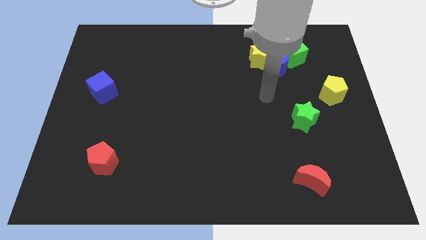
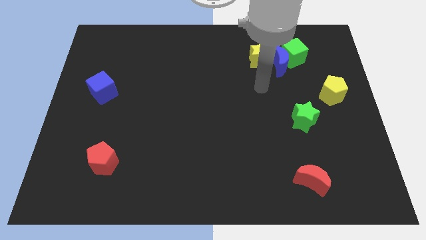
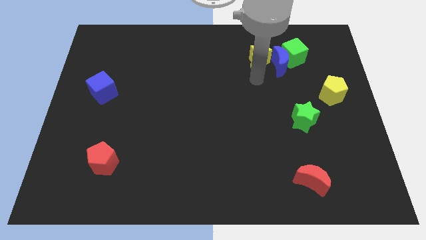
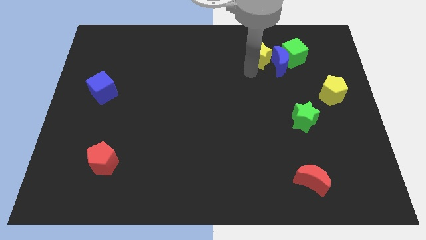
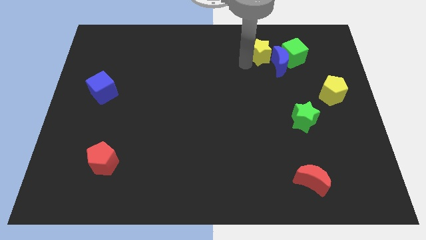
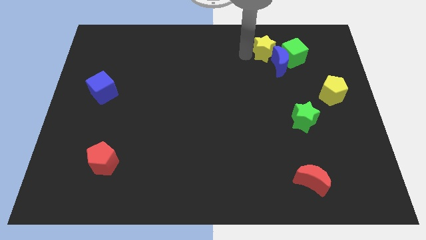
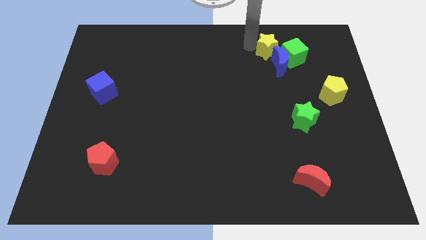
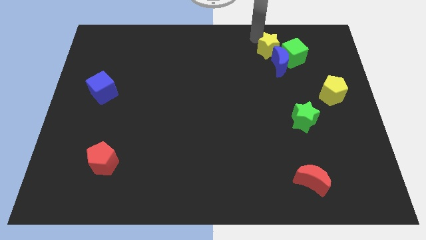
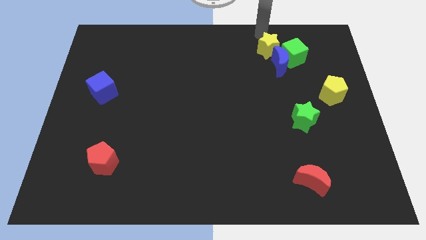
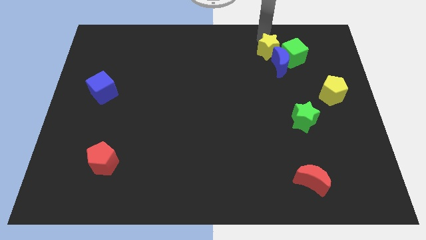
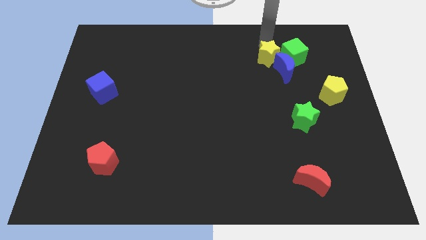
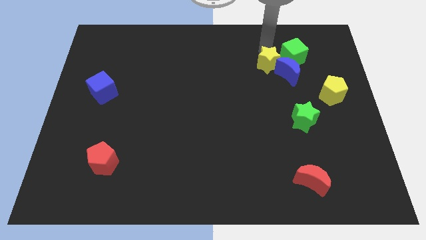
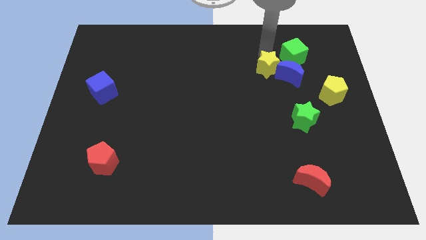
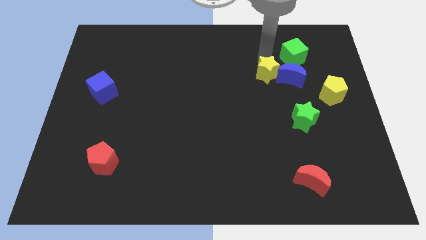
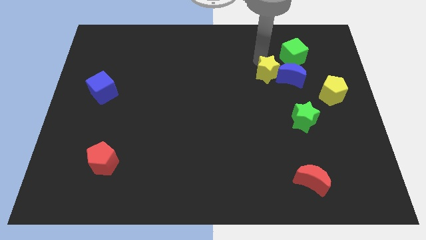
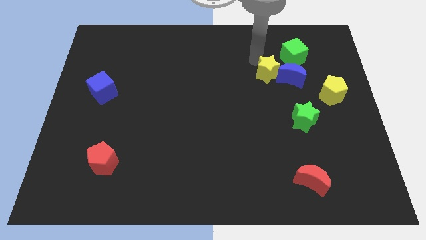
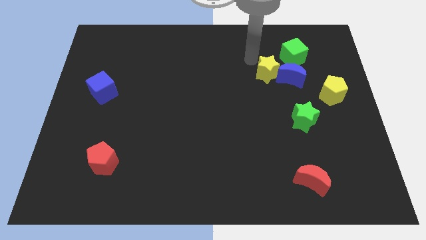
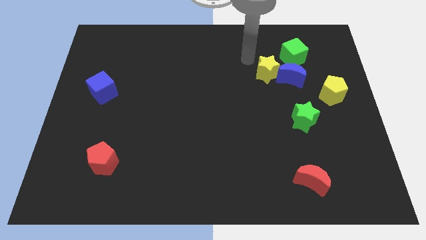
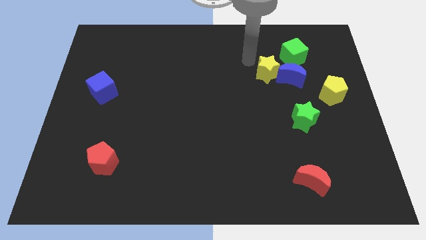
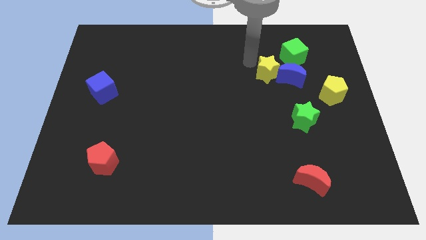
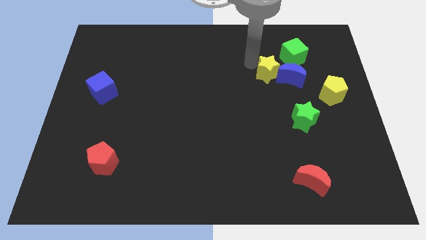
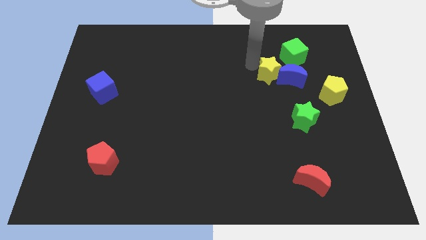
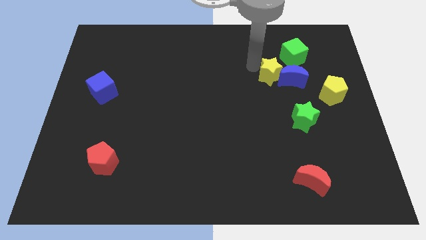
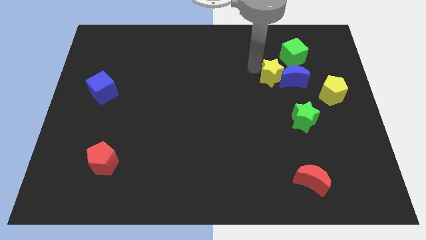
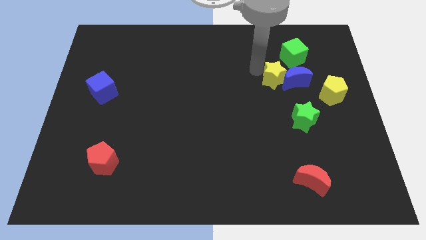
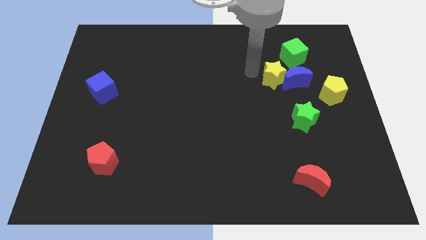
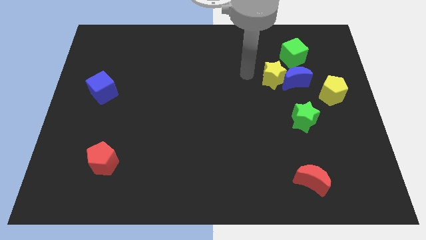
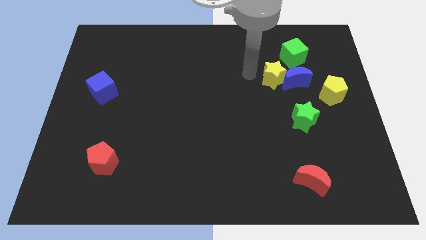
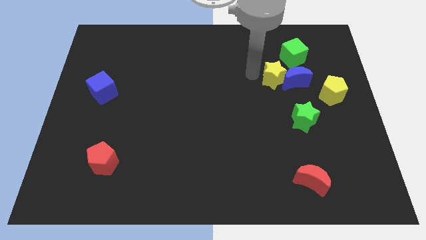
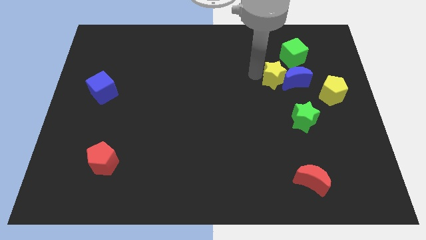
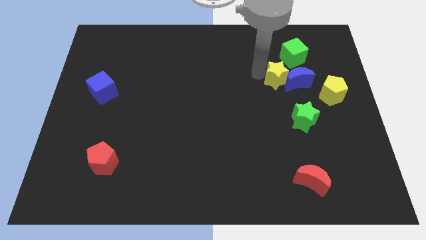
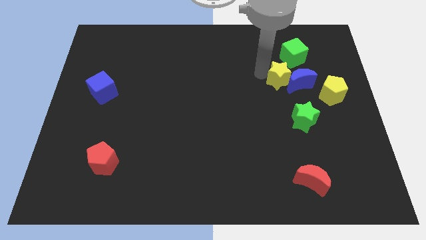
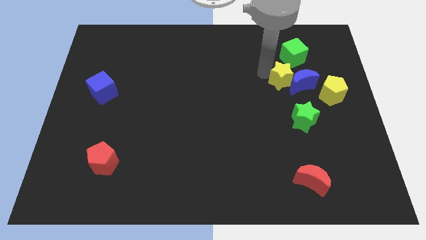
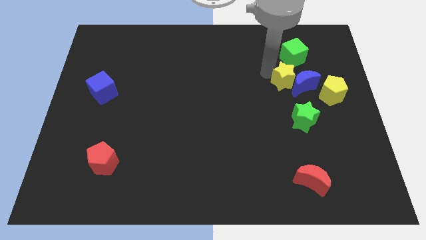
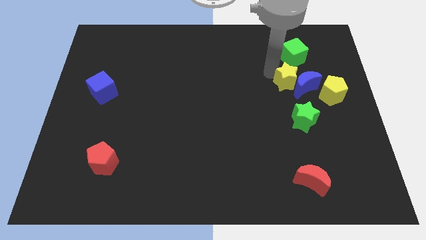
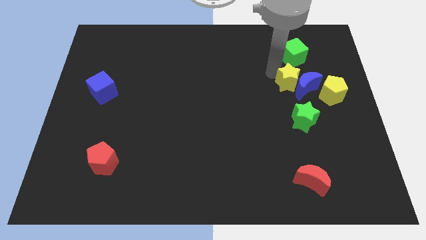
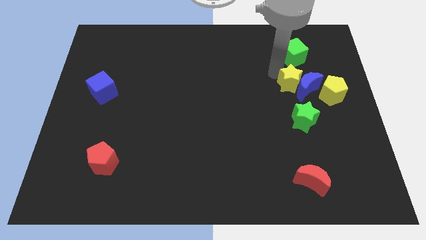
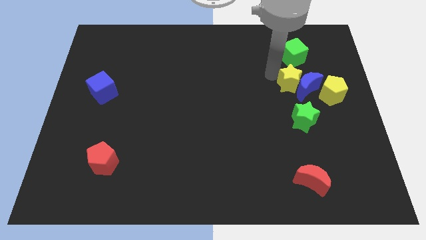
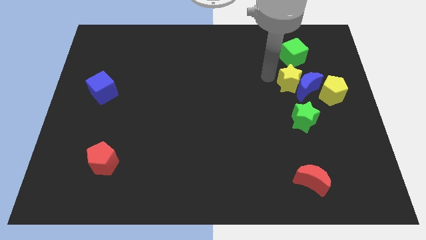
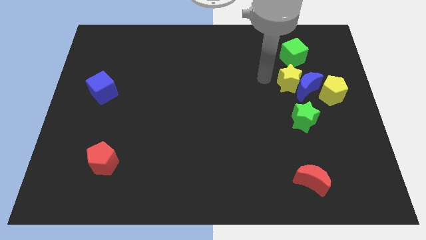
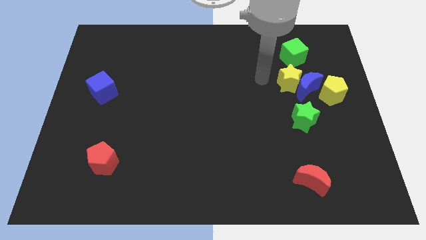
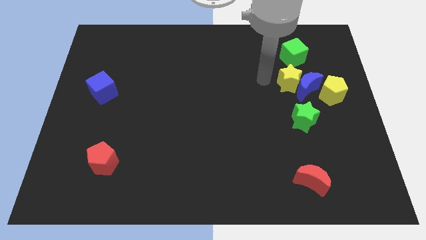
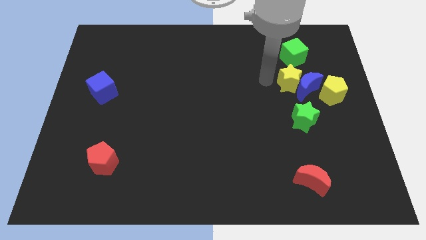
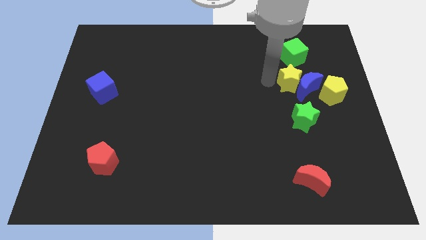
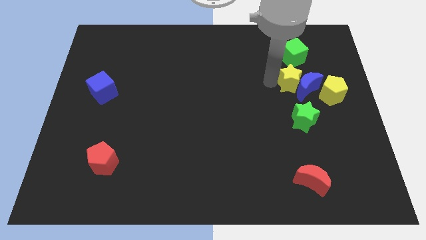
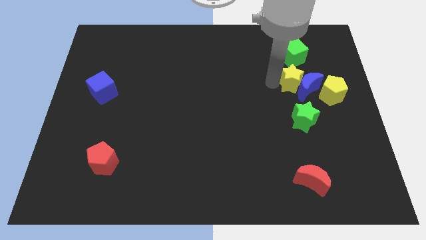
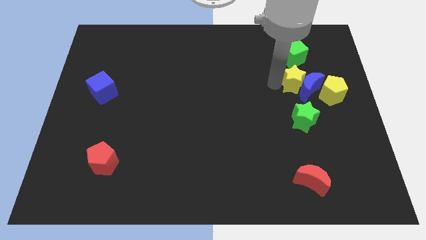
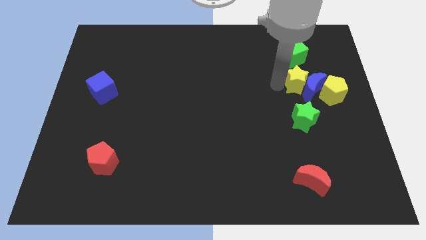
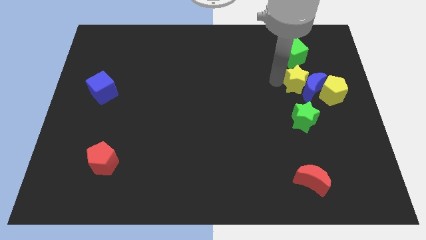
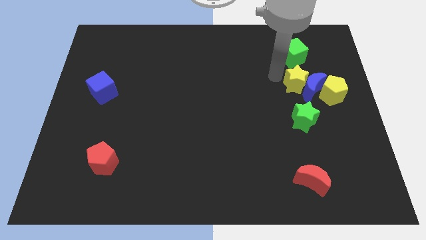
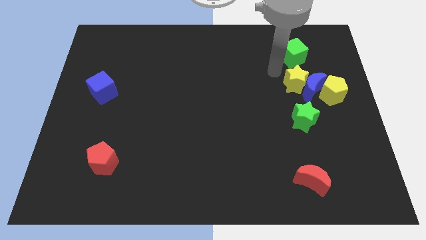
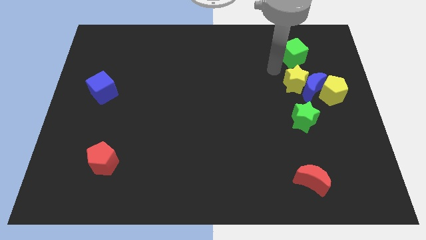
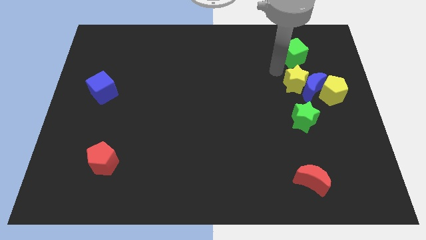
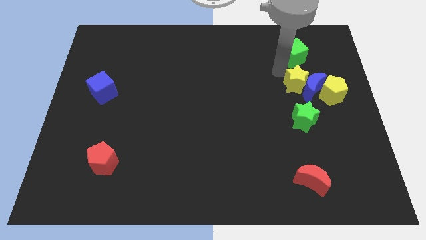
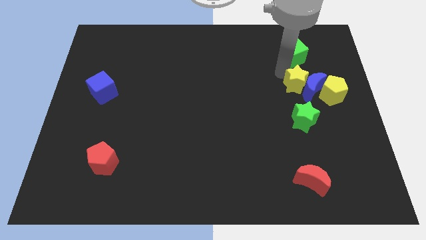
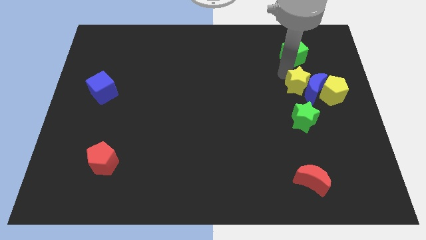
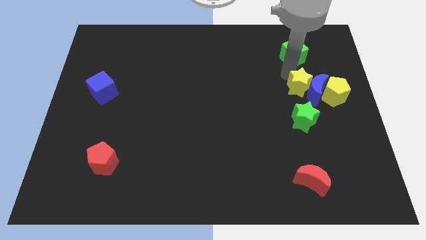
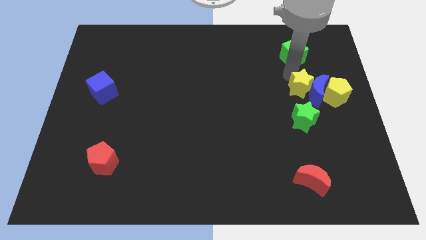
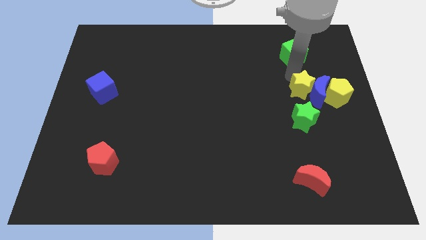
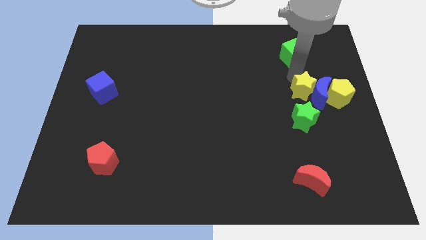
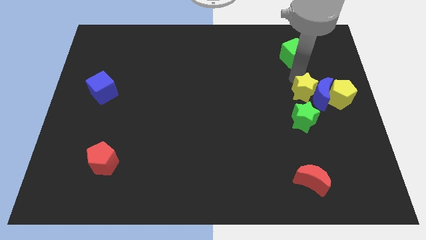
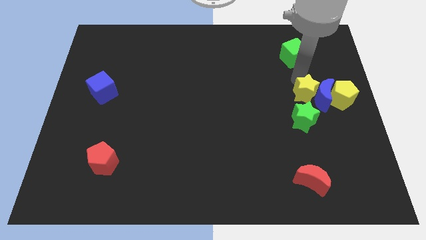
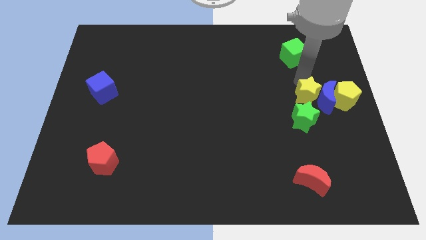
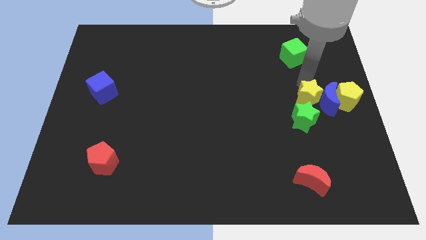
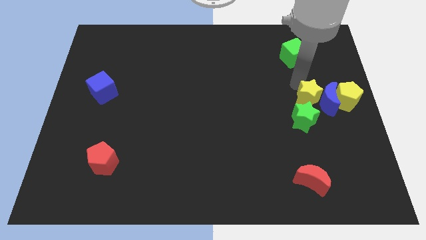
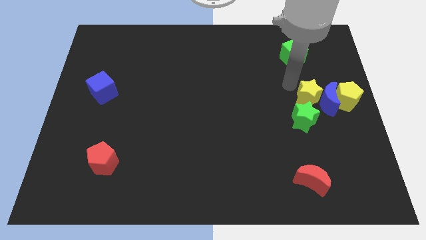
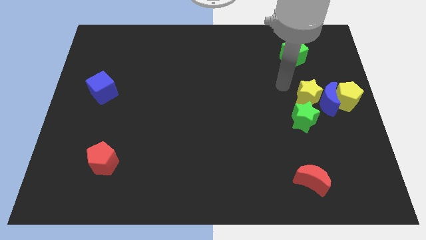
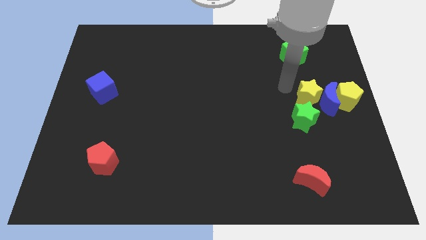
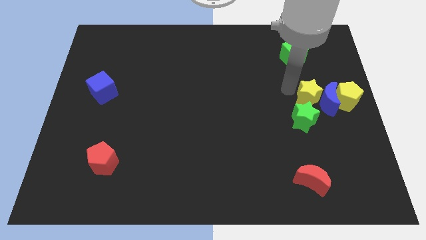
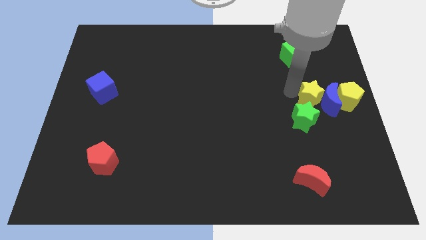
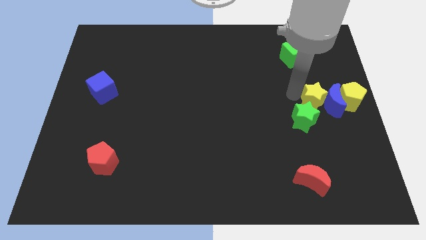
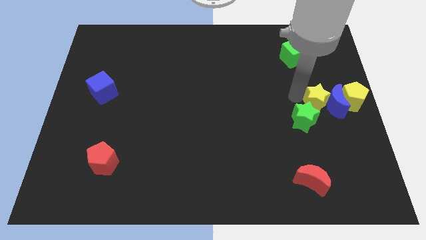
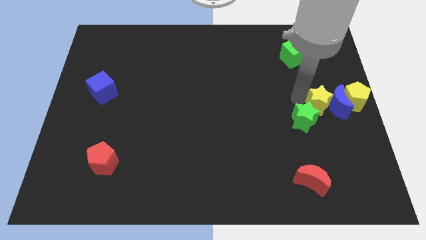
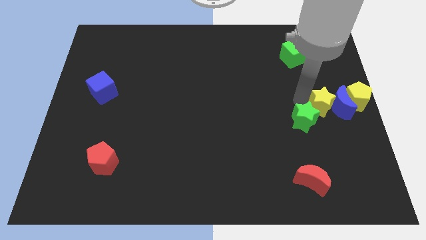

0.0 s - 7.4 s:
move the yellow star to the right side of the board
